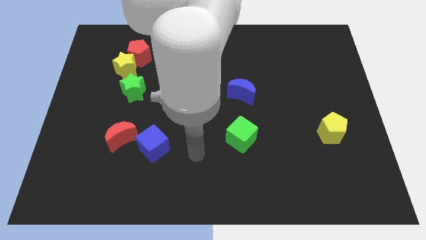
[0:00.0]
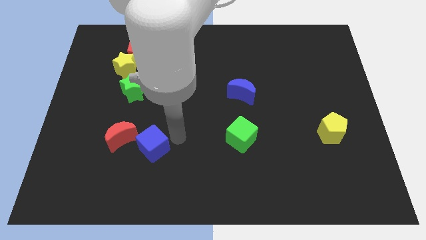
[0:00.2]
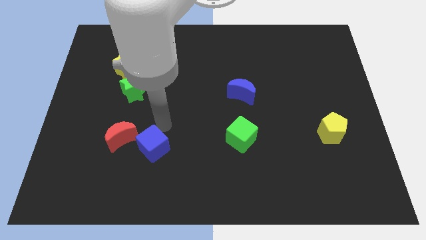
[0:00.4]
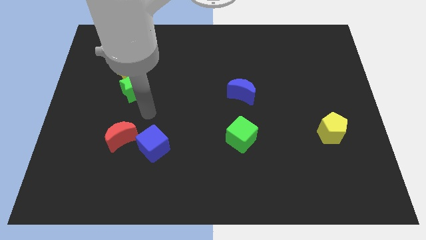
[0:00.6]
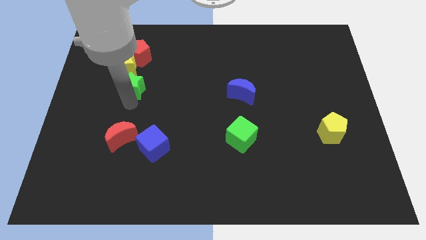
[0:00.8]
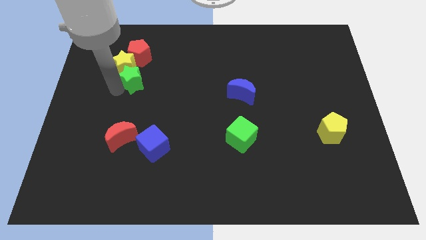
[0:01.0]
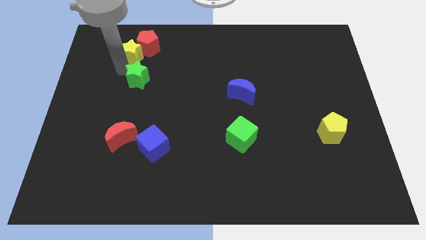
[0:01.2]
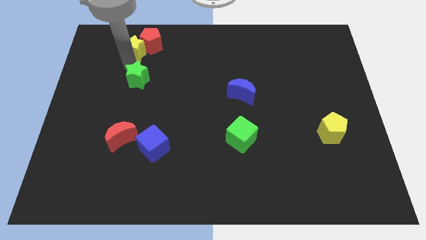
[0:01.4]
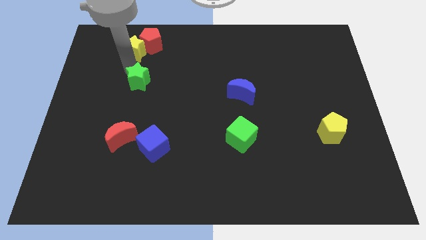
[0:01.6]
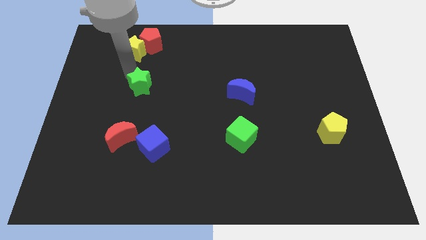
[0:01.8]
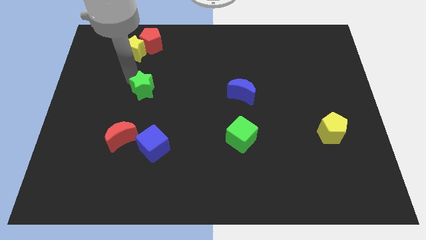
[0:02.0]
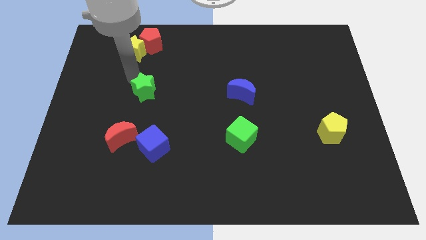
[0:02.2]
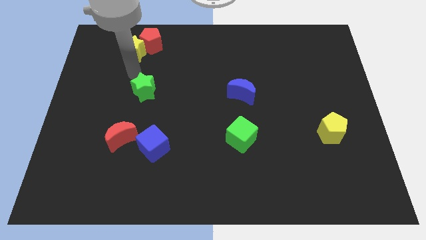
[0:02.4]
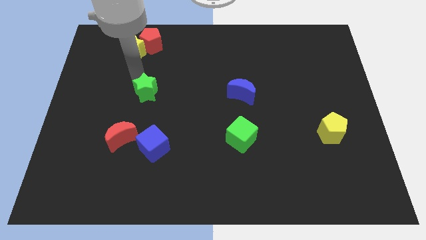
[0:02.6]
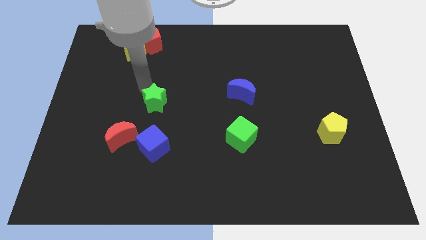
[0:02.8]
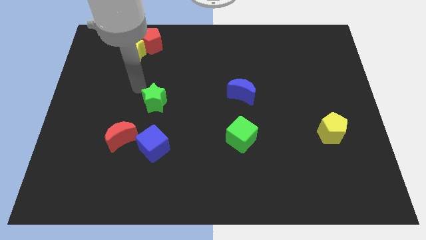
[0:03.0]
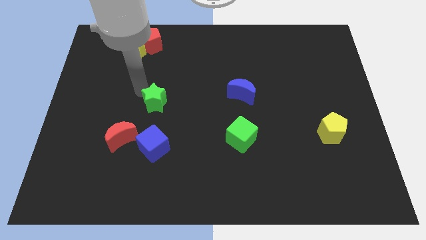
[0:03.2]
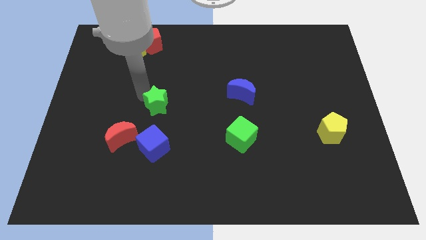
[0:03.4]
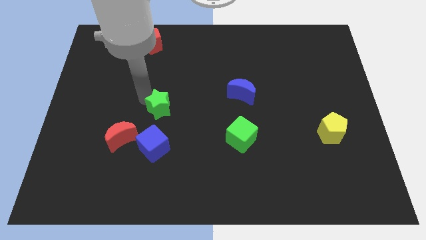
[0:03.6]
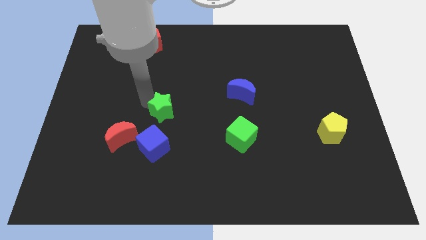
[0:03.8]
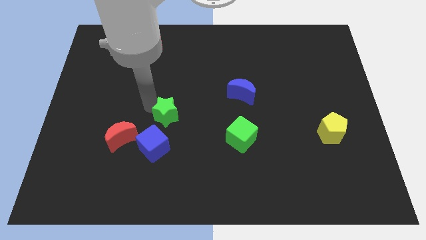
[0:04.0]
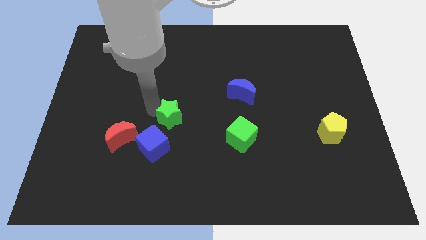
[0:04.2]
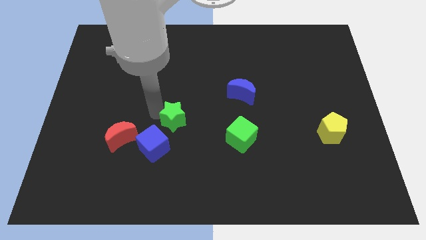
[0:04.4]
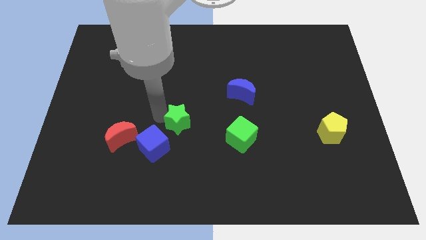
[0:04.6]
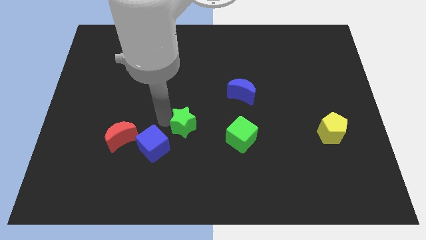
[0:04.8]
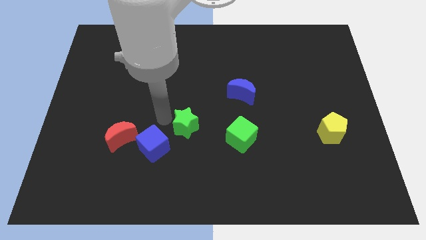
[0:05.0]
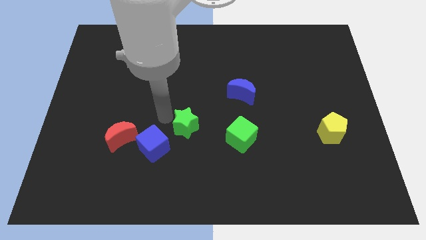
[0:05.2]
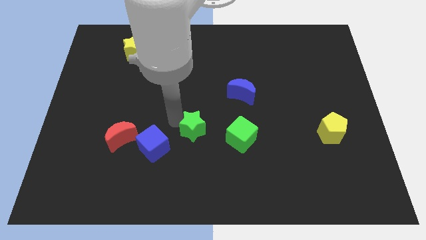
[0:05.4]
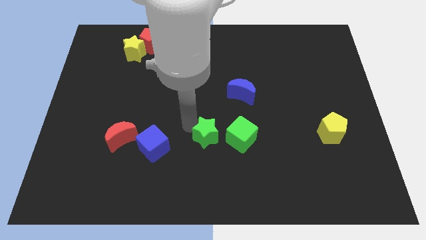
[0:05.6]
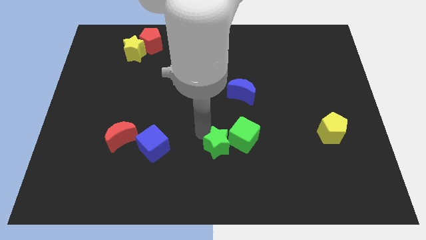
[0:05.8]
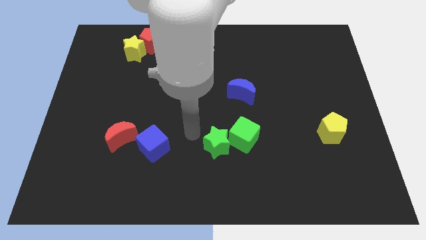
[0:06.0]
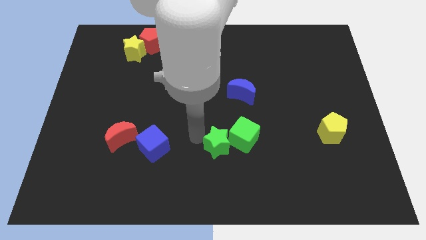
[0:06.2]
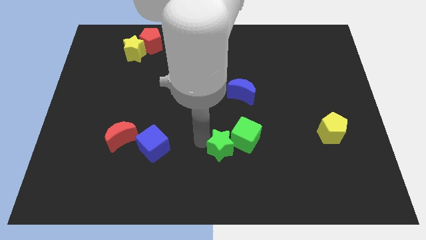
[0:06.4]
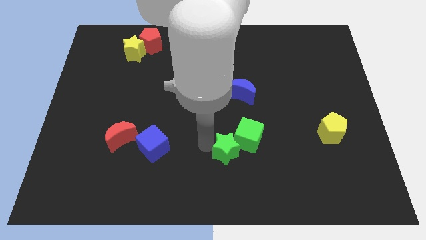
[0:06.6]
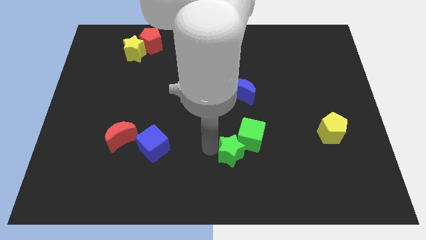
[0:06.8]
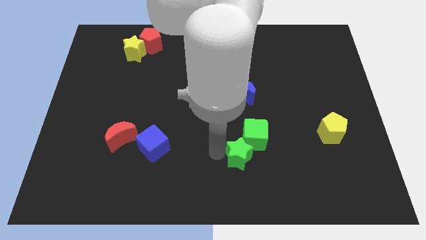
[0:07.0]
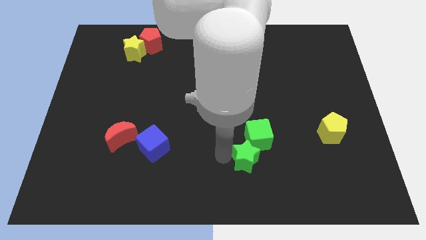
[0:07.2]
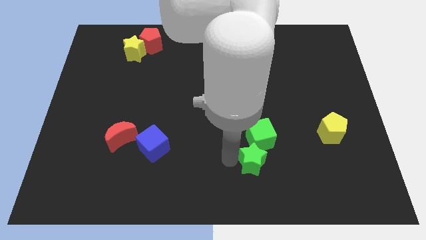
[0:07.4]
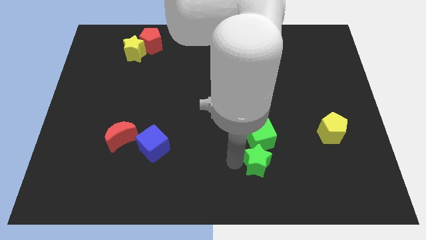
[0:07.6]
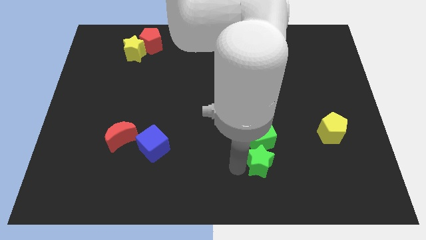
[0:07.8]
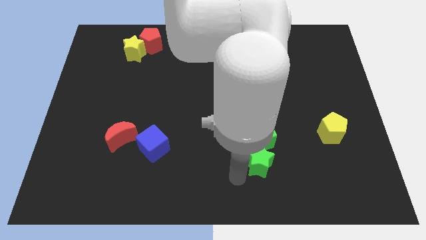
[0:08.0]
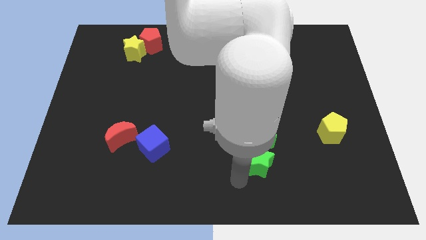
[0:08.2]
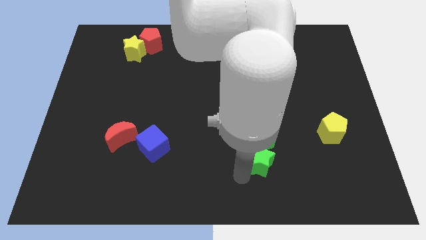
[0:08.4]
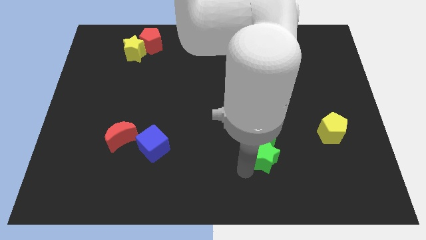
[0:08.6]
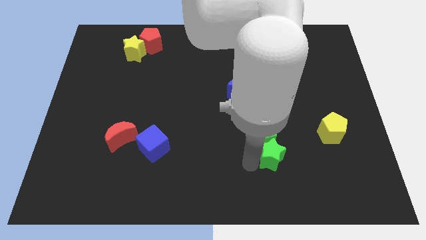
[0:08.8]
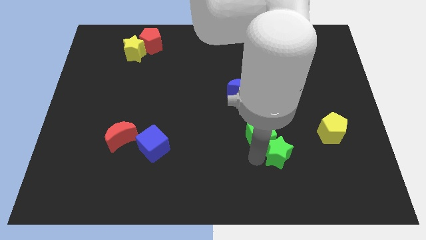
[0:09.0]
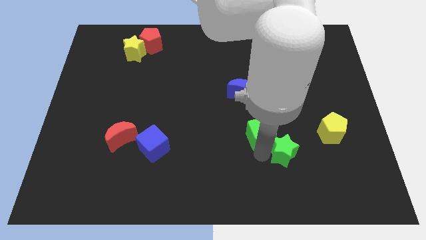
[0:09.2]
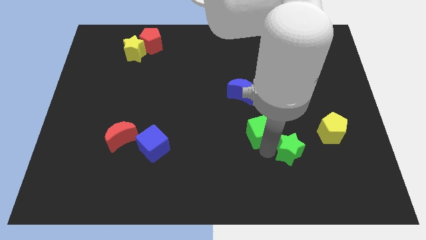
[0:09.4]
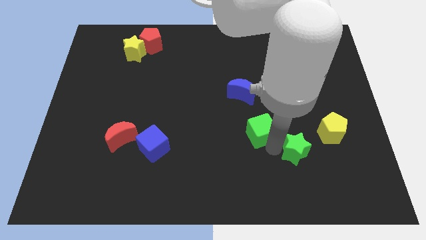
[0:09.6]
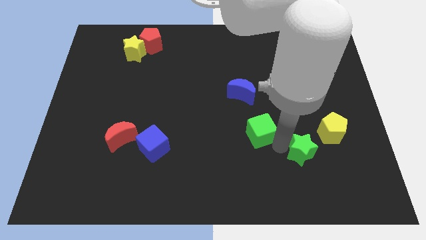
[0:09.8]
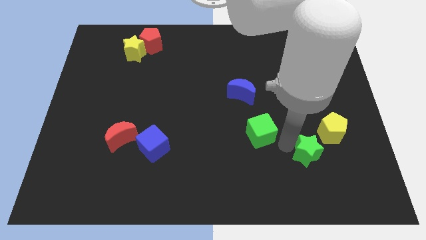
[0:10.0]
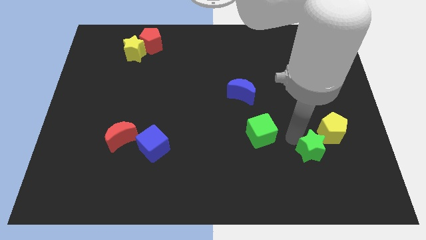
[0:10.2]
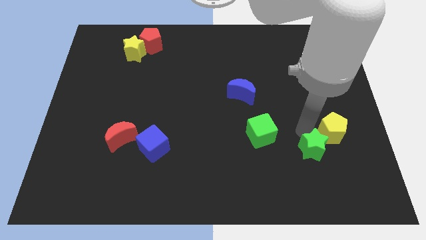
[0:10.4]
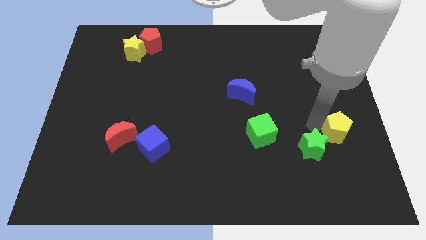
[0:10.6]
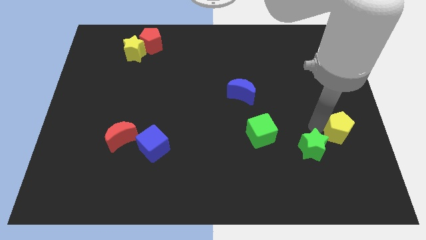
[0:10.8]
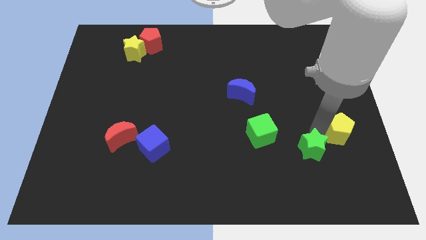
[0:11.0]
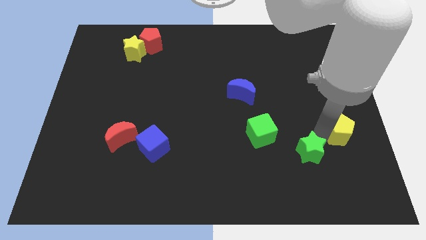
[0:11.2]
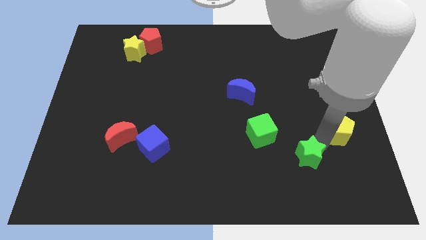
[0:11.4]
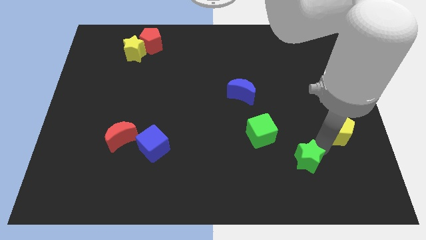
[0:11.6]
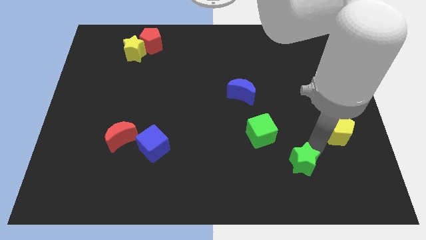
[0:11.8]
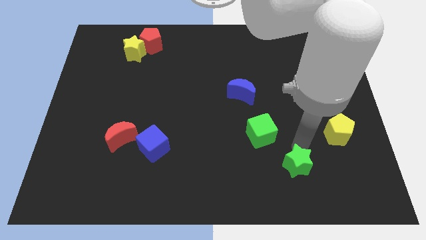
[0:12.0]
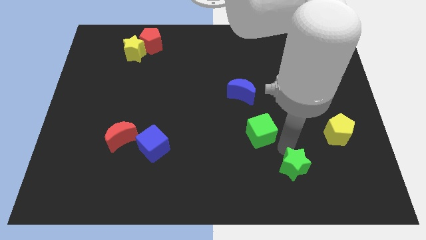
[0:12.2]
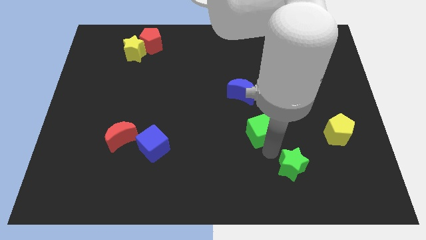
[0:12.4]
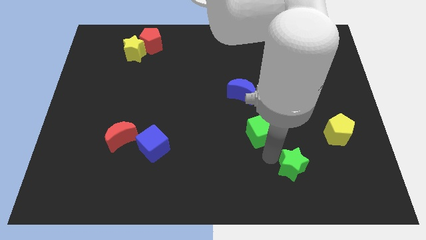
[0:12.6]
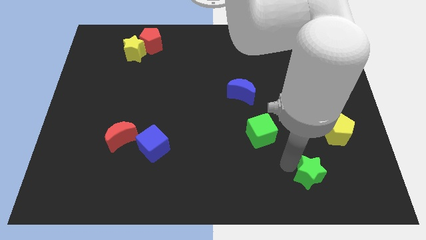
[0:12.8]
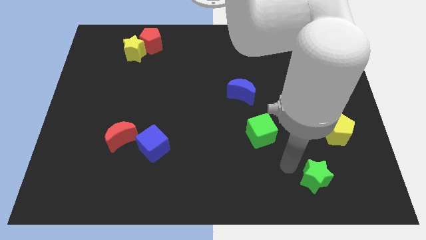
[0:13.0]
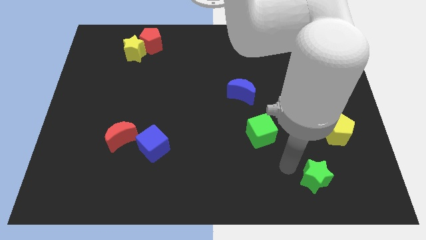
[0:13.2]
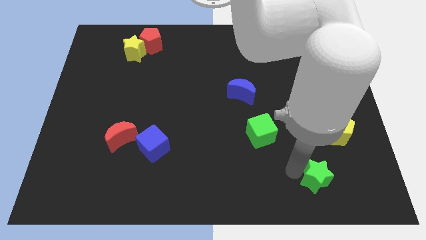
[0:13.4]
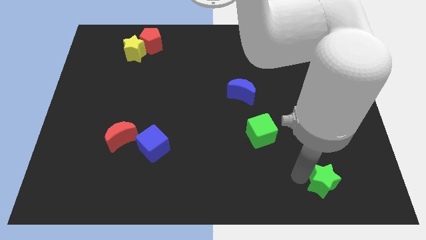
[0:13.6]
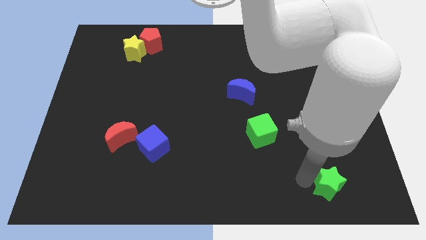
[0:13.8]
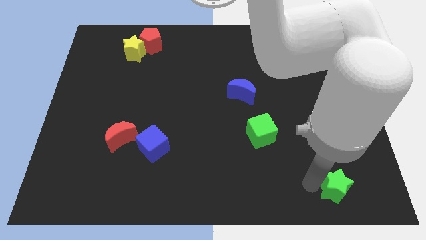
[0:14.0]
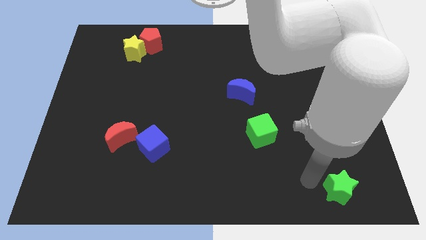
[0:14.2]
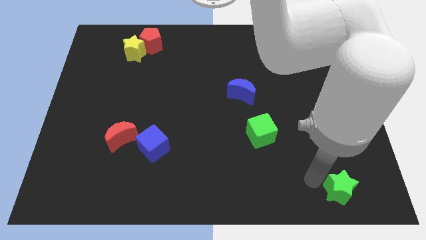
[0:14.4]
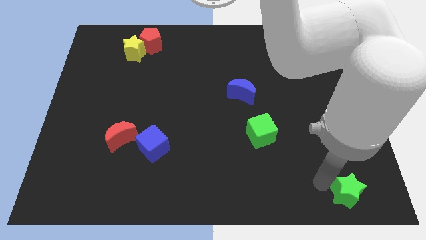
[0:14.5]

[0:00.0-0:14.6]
put the green star to the bottom right of the board

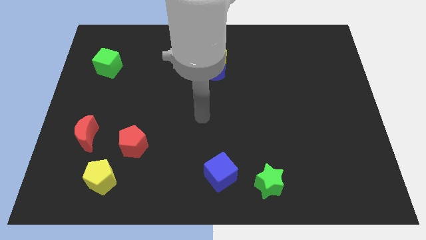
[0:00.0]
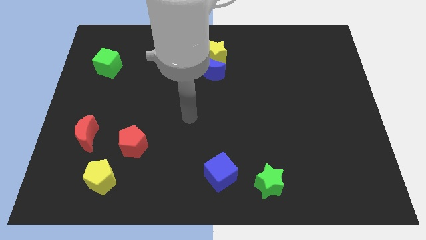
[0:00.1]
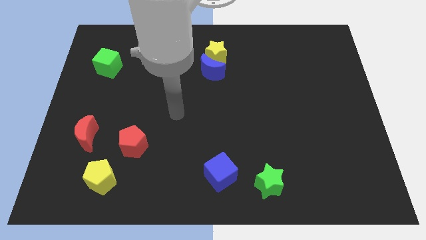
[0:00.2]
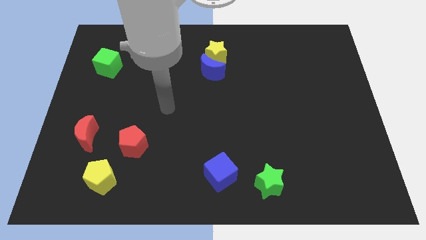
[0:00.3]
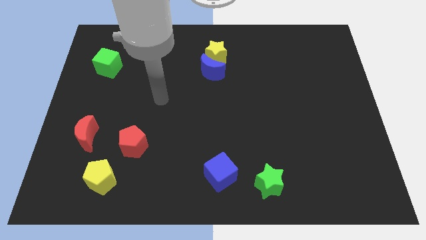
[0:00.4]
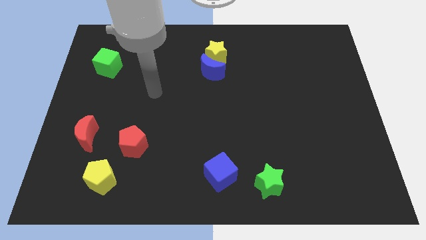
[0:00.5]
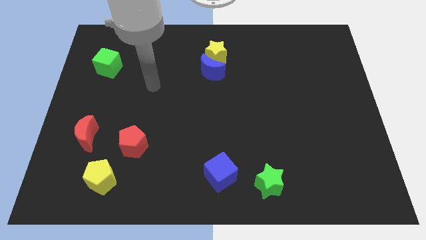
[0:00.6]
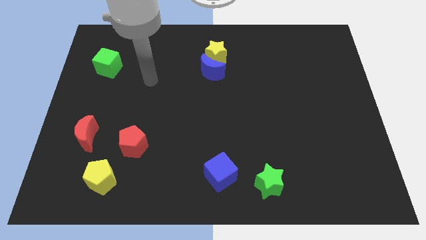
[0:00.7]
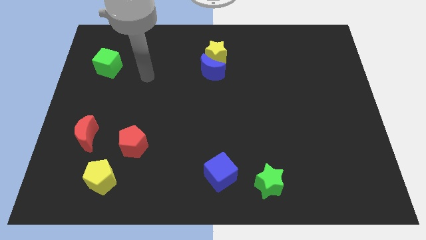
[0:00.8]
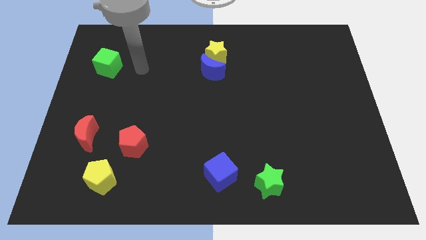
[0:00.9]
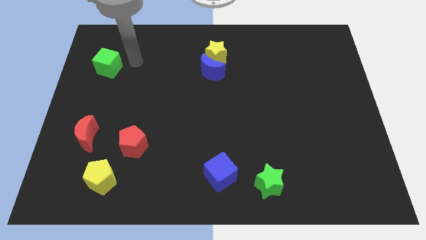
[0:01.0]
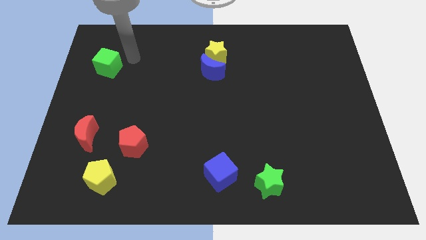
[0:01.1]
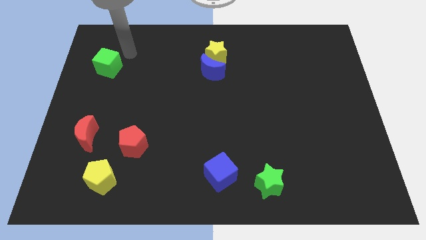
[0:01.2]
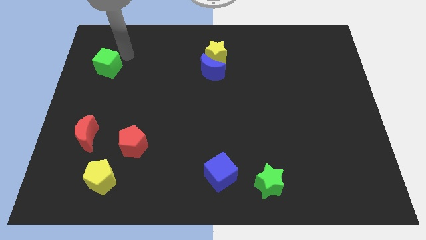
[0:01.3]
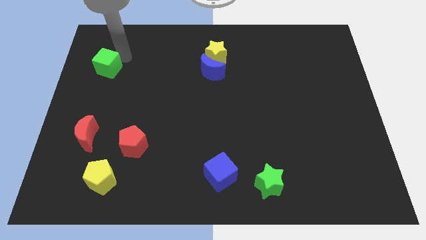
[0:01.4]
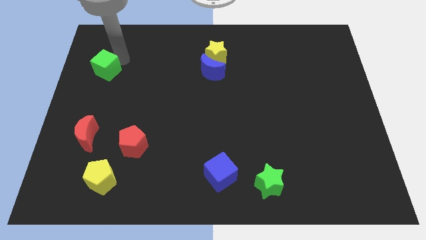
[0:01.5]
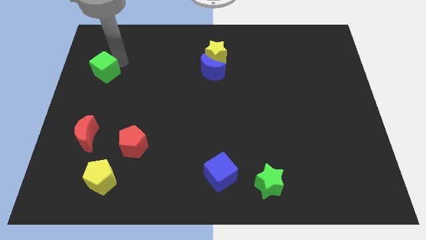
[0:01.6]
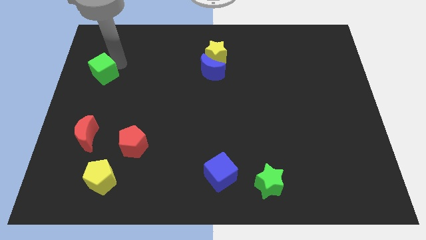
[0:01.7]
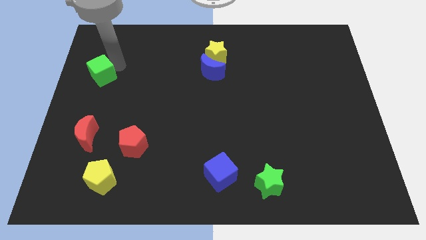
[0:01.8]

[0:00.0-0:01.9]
put the green cube to the center left
